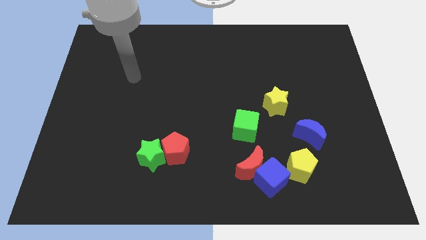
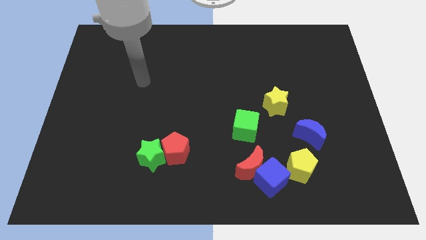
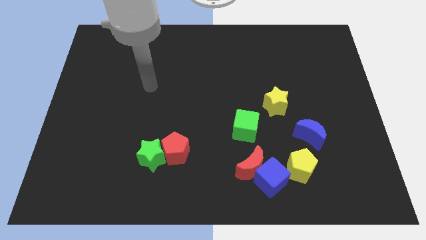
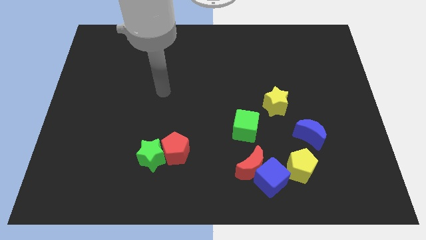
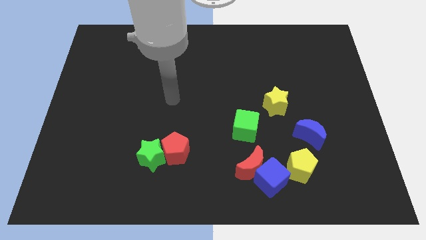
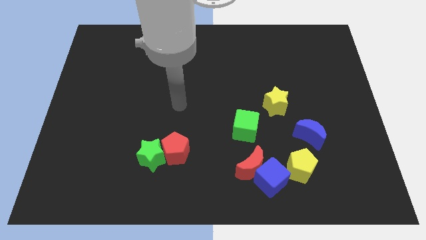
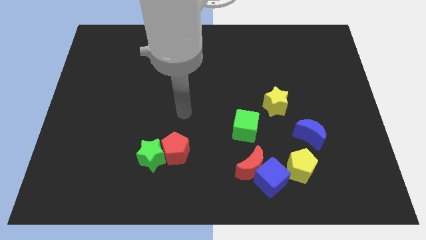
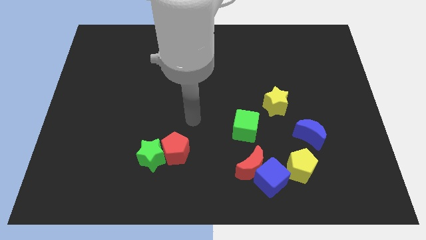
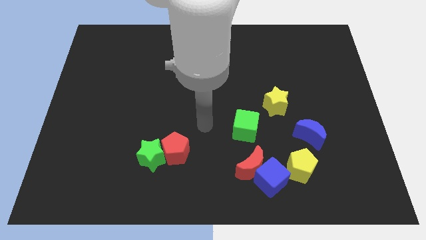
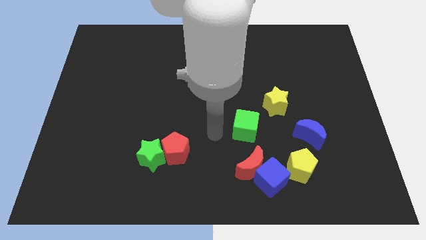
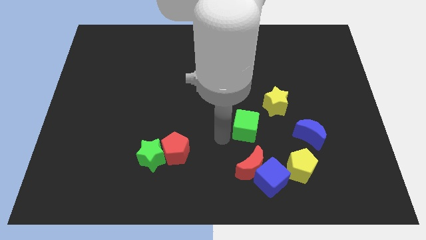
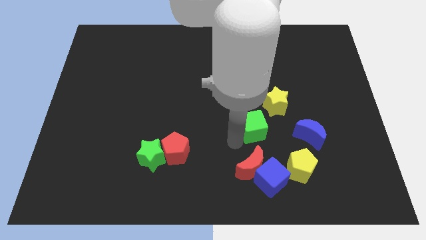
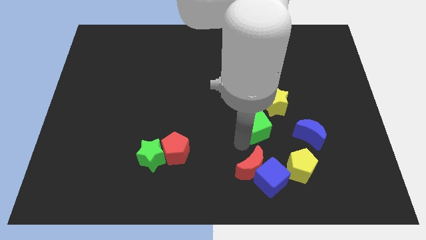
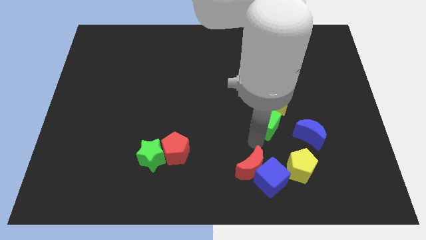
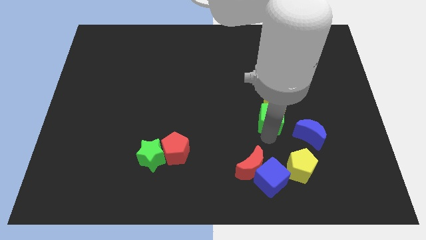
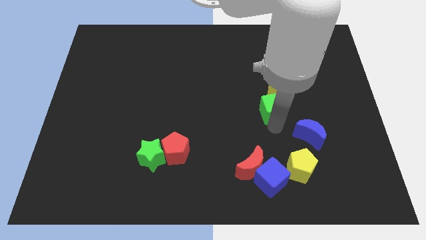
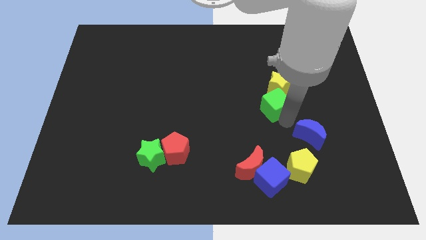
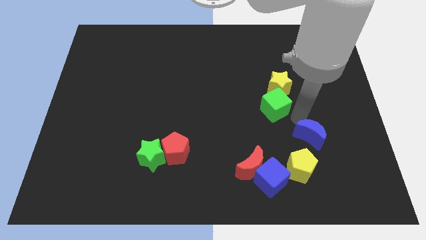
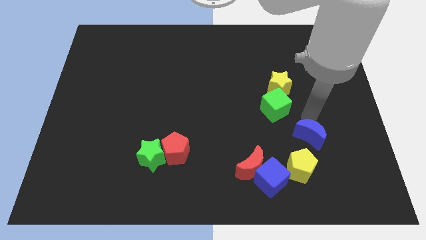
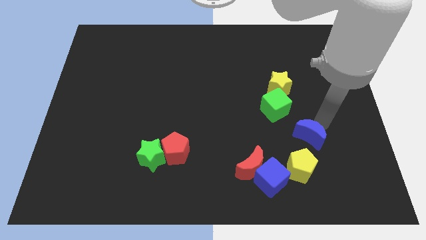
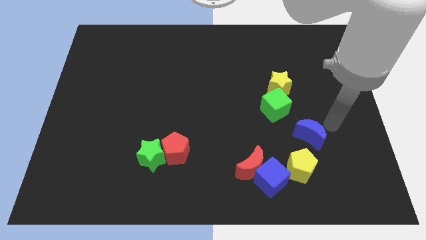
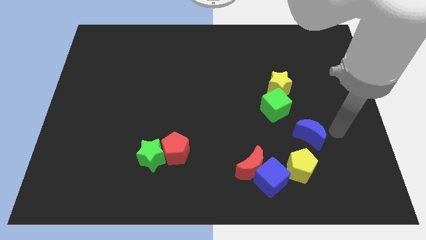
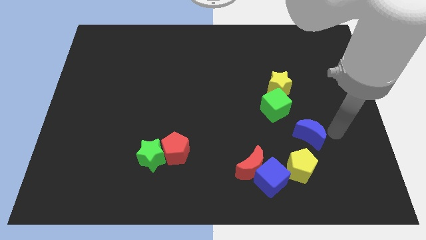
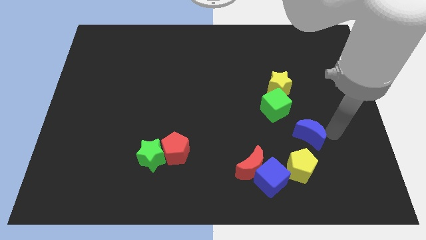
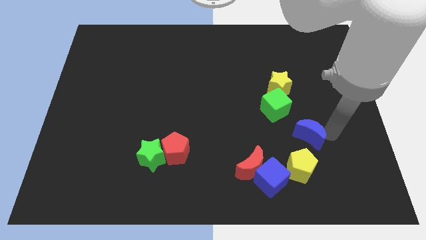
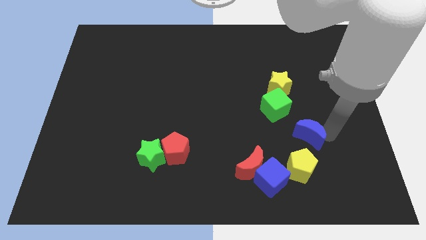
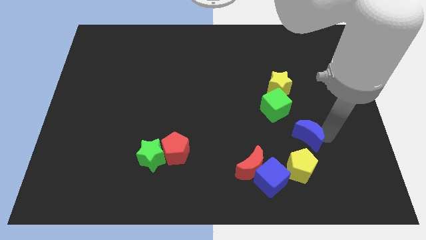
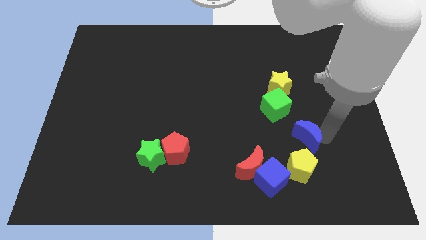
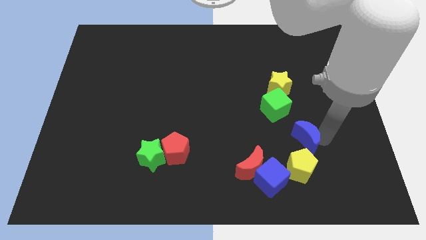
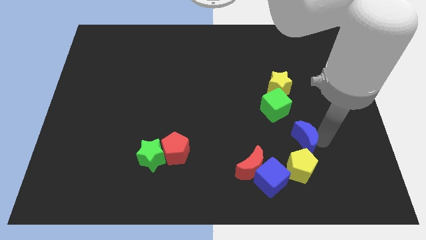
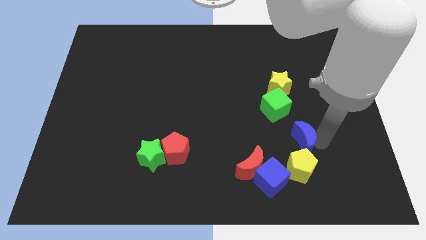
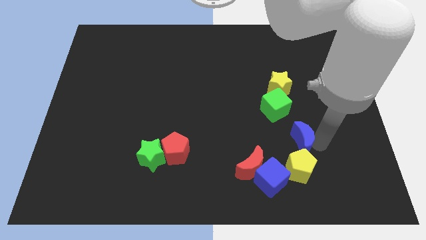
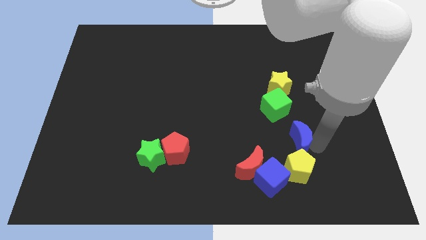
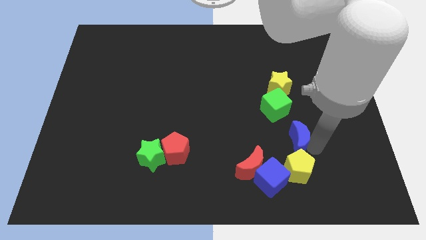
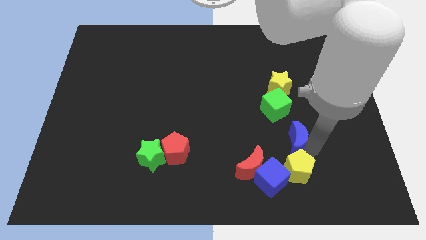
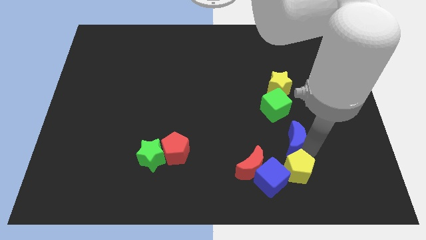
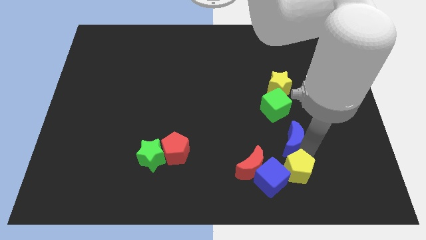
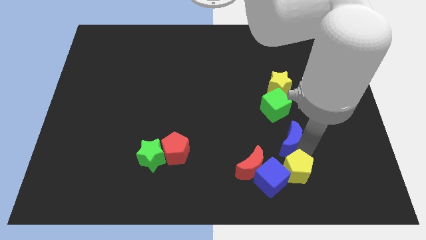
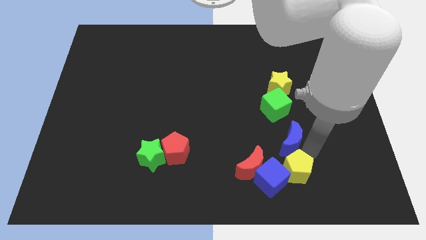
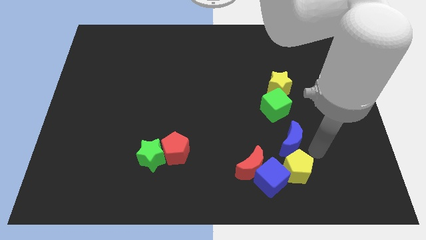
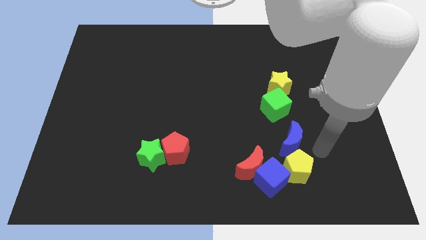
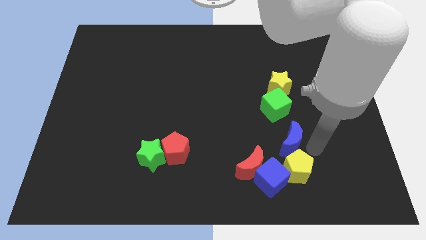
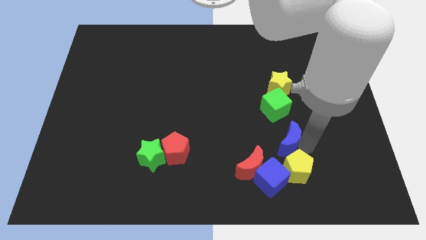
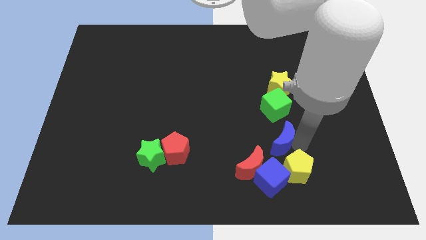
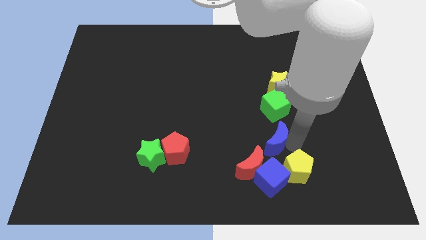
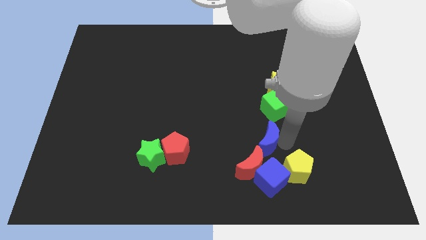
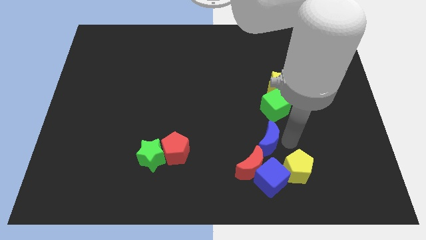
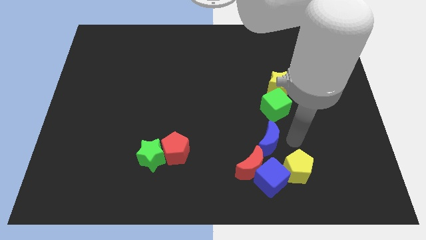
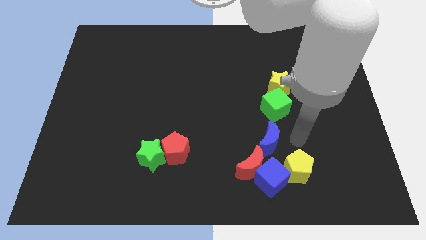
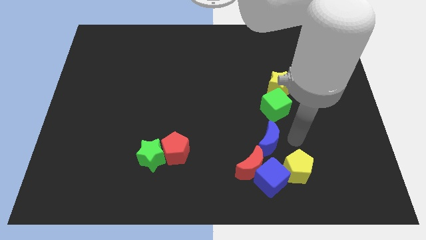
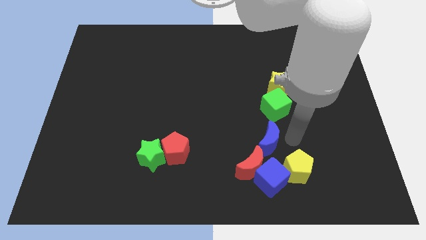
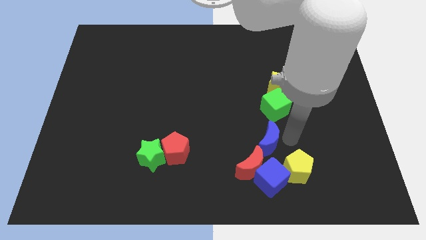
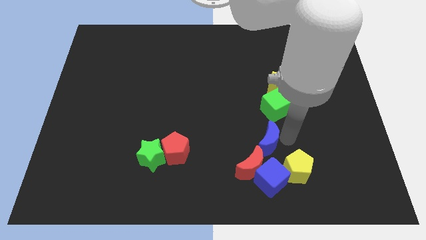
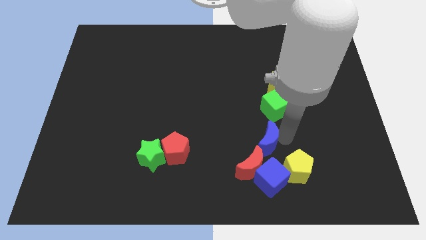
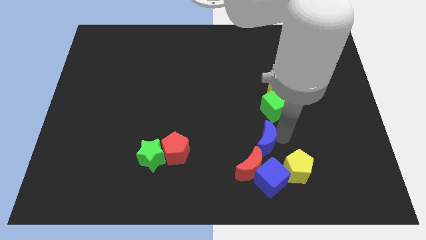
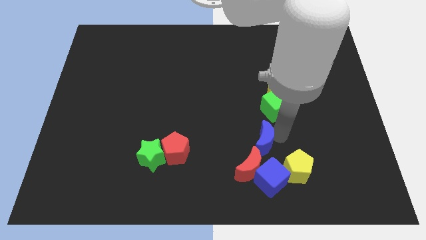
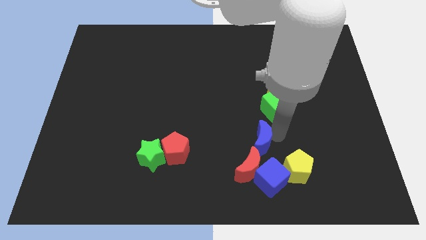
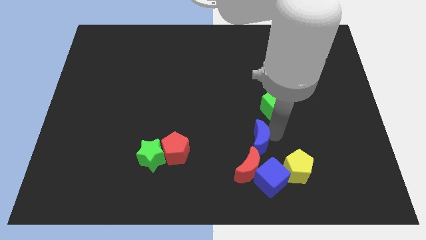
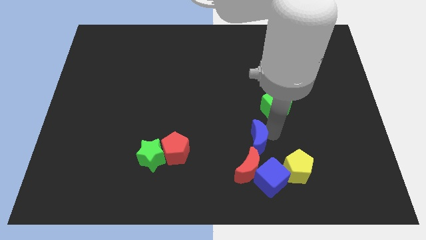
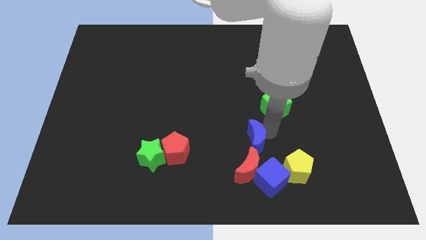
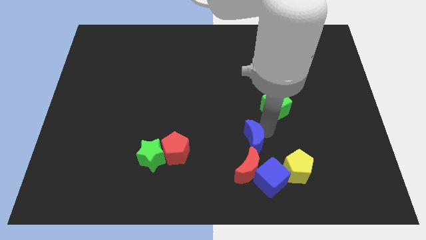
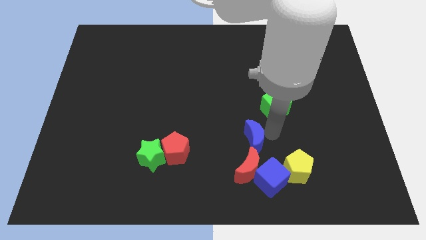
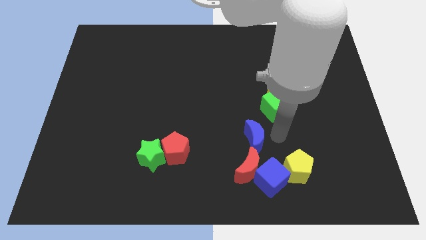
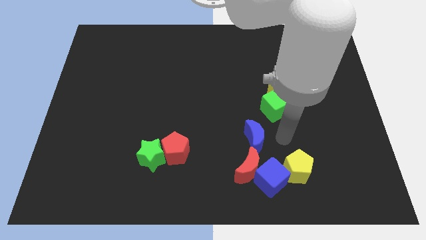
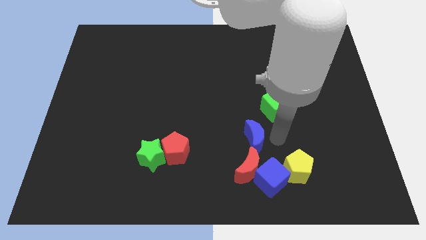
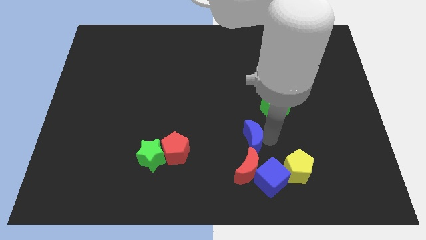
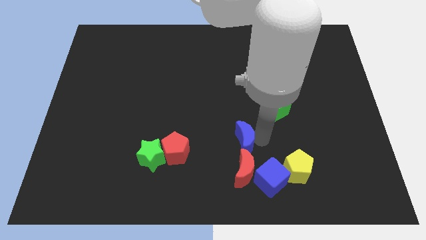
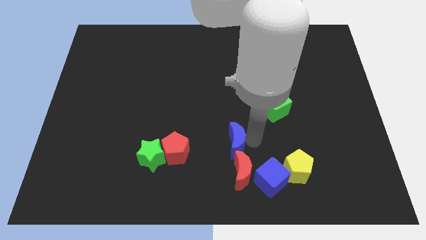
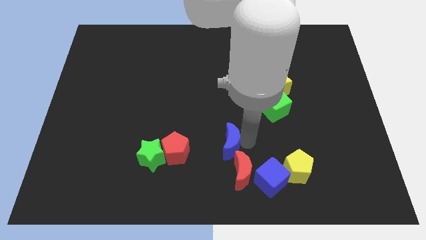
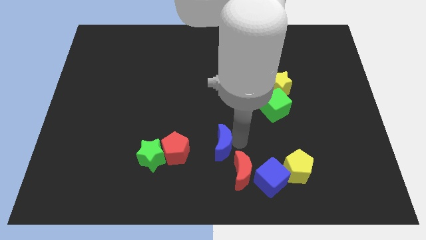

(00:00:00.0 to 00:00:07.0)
slide the blue moon just right of the green star
